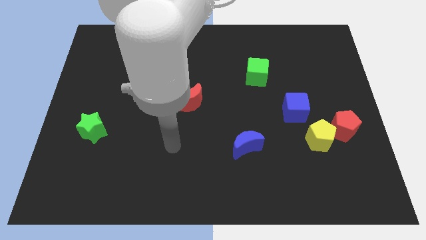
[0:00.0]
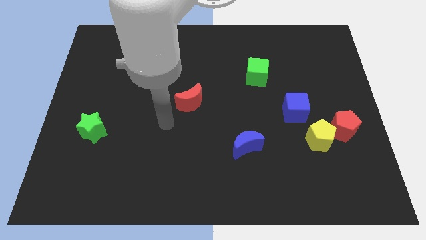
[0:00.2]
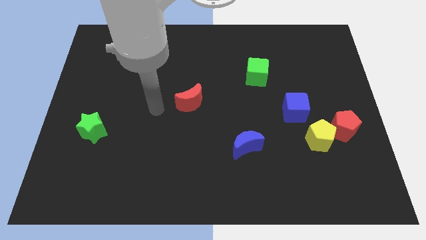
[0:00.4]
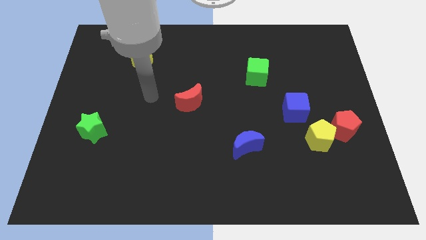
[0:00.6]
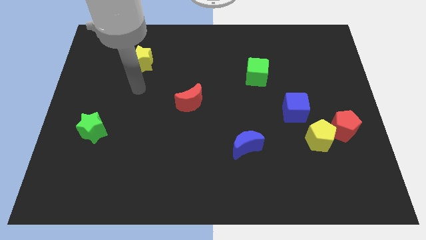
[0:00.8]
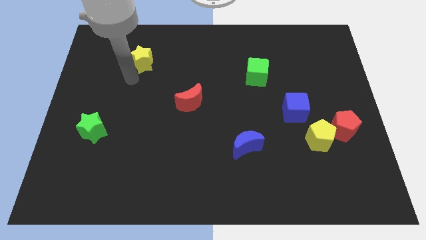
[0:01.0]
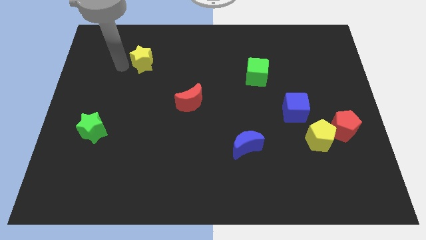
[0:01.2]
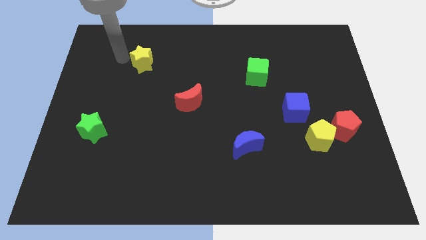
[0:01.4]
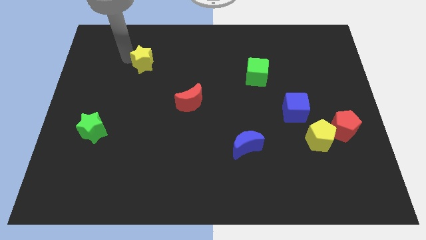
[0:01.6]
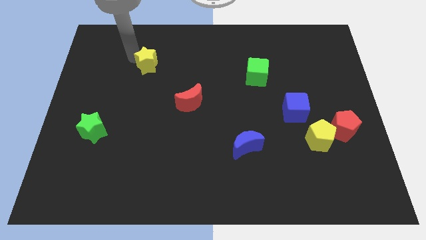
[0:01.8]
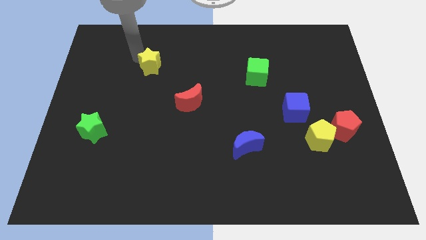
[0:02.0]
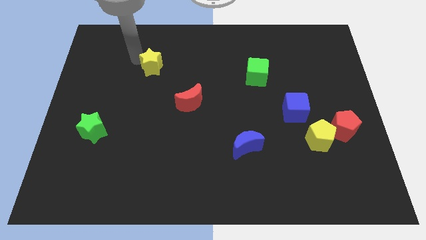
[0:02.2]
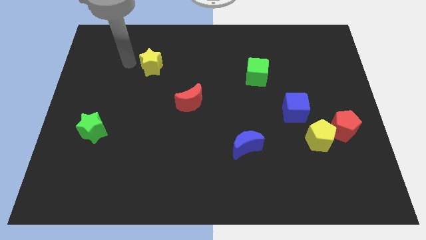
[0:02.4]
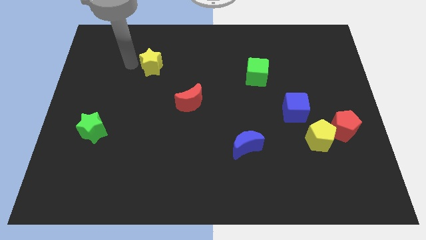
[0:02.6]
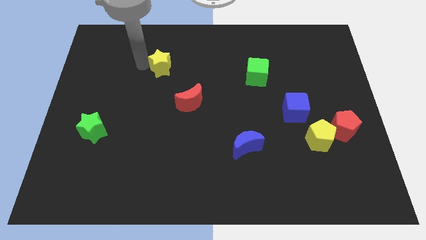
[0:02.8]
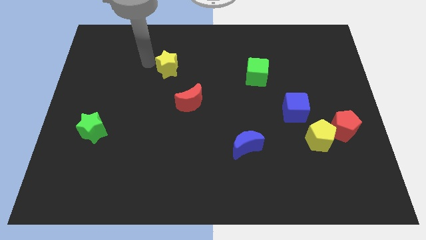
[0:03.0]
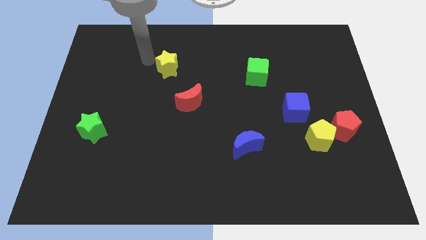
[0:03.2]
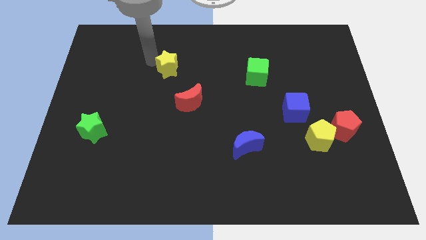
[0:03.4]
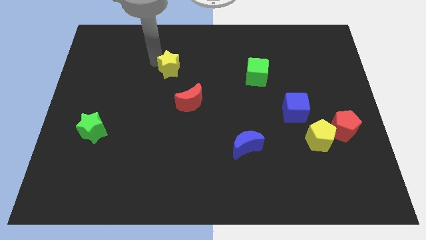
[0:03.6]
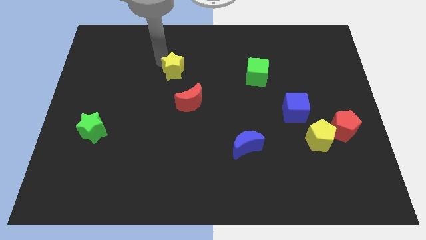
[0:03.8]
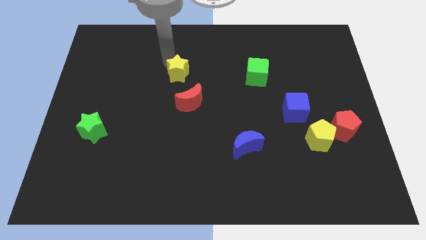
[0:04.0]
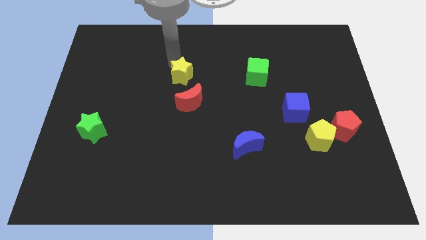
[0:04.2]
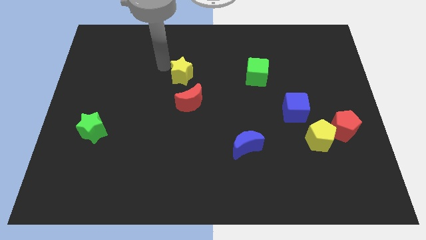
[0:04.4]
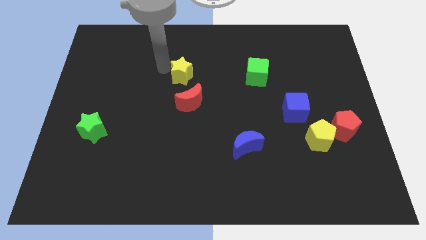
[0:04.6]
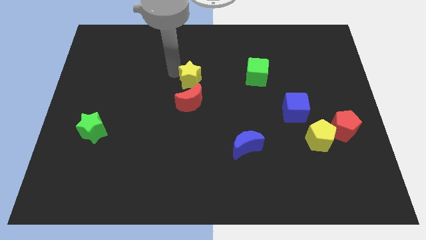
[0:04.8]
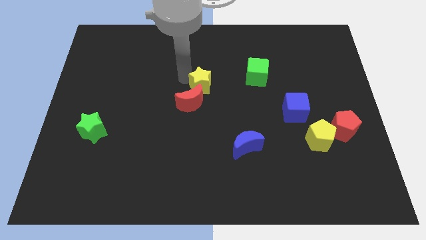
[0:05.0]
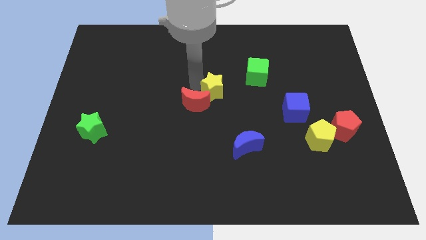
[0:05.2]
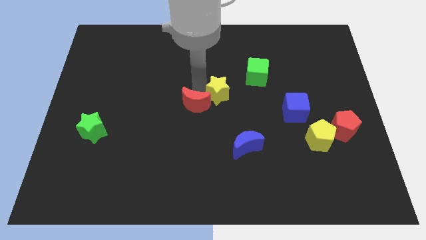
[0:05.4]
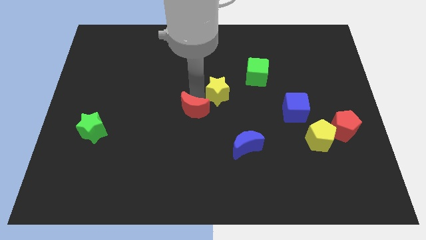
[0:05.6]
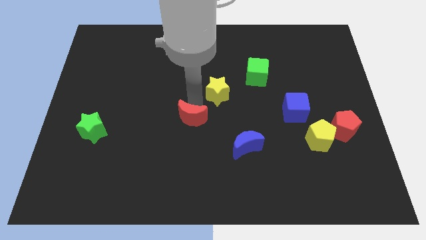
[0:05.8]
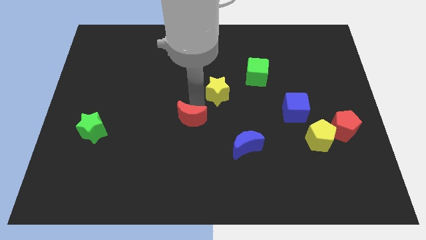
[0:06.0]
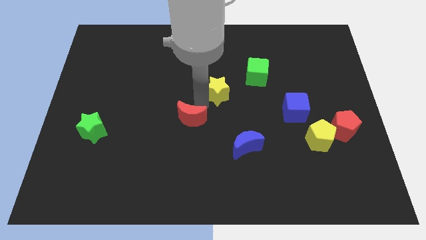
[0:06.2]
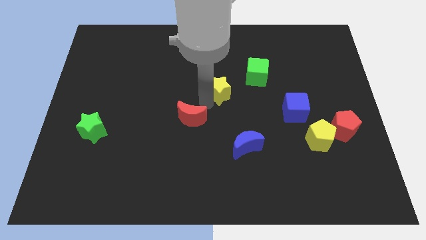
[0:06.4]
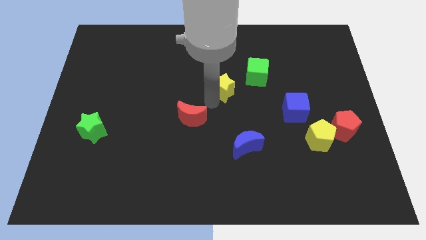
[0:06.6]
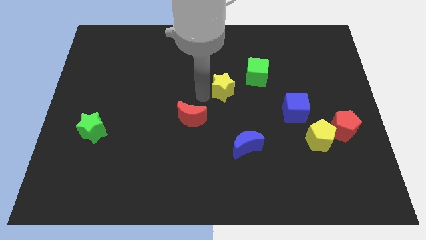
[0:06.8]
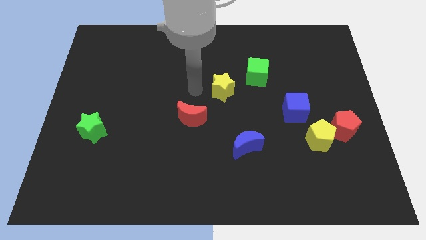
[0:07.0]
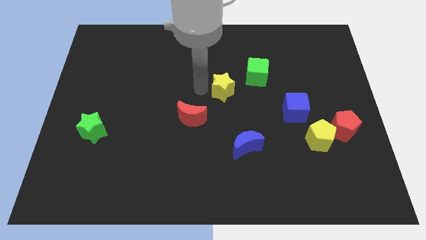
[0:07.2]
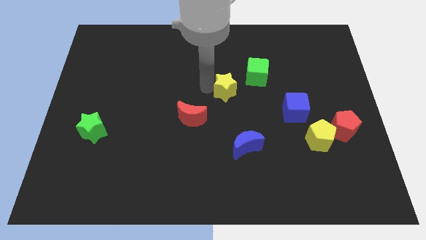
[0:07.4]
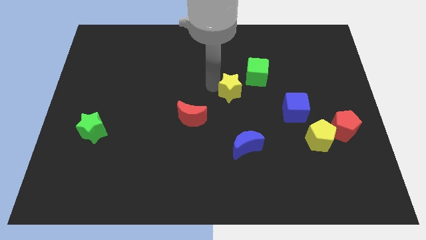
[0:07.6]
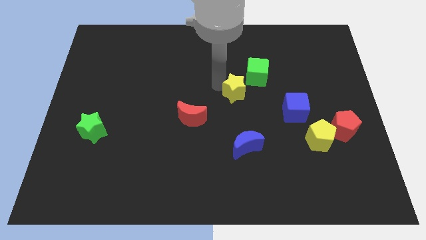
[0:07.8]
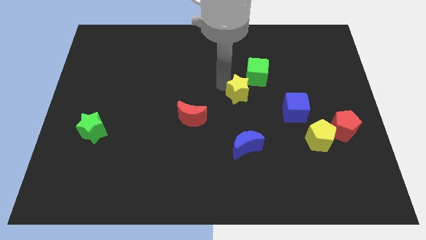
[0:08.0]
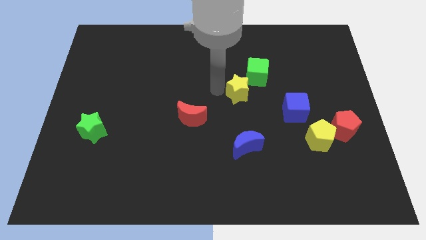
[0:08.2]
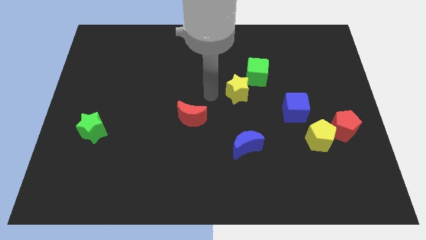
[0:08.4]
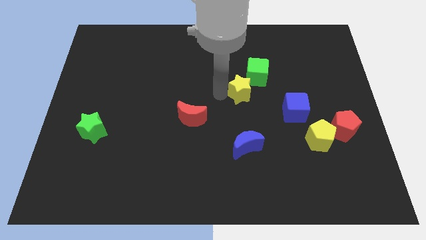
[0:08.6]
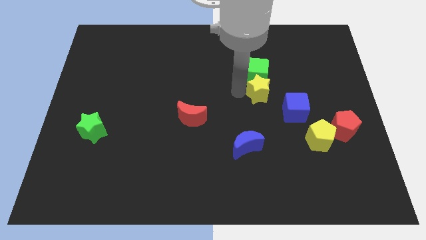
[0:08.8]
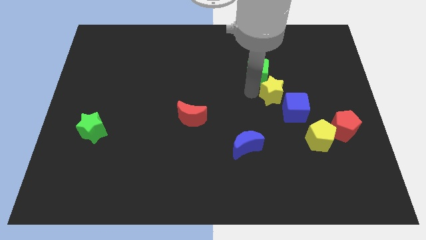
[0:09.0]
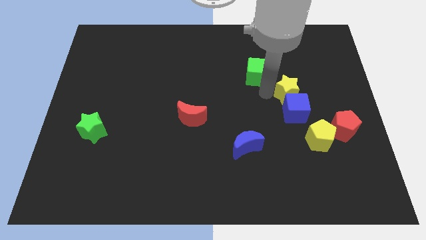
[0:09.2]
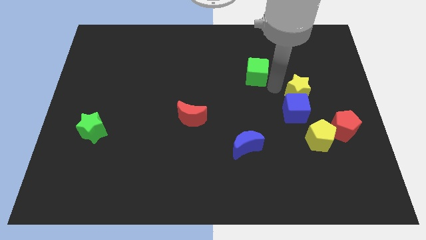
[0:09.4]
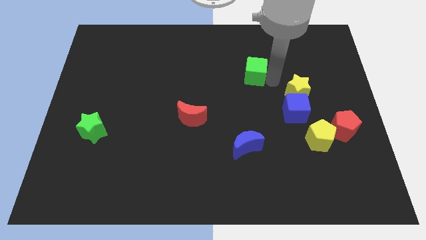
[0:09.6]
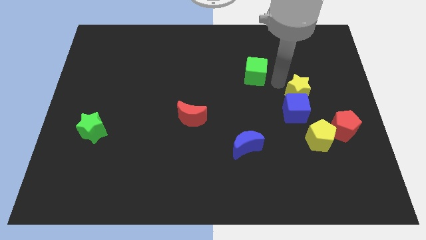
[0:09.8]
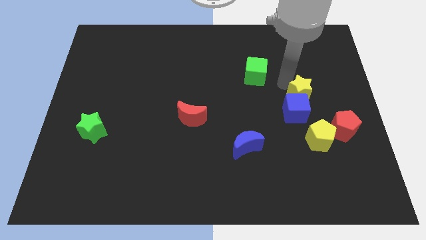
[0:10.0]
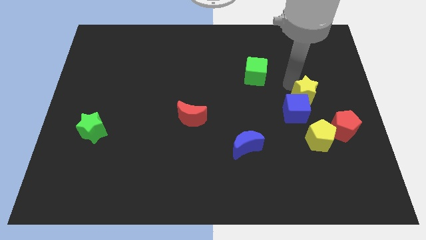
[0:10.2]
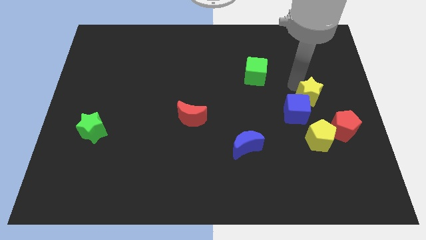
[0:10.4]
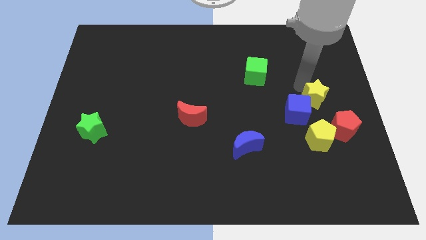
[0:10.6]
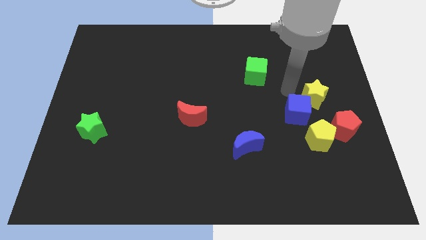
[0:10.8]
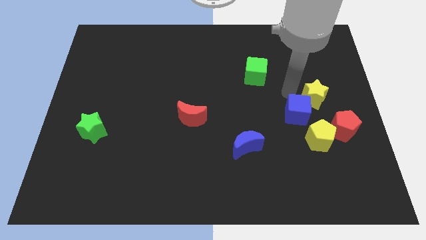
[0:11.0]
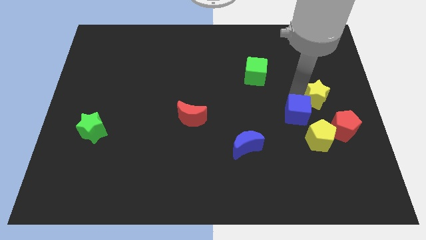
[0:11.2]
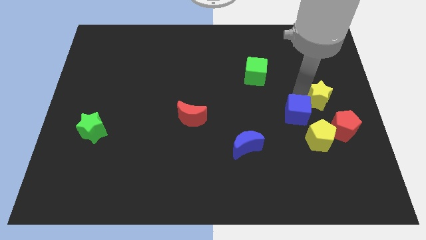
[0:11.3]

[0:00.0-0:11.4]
put the yellow star to the right side of the board
